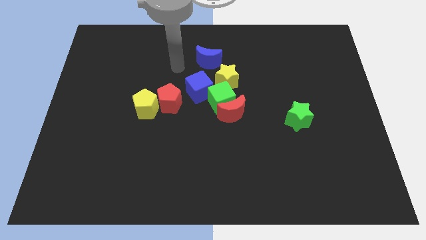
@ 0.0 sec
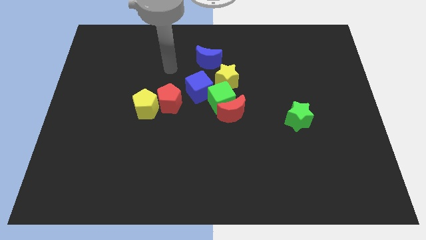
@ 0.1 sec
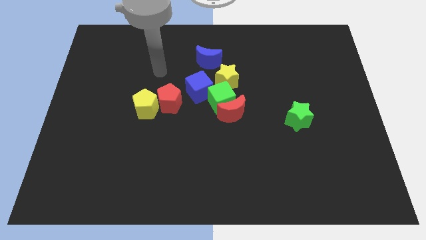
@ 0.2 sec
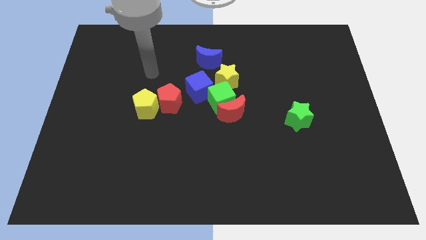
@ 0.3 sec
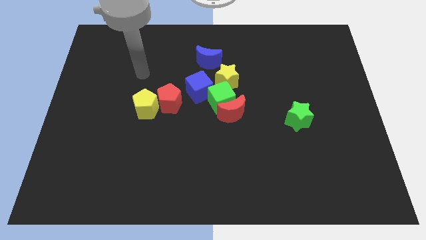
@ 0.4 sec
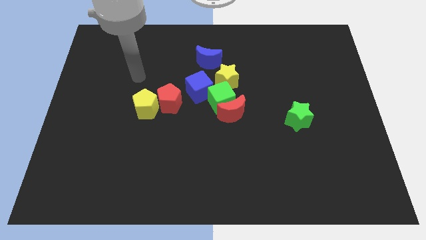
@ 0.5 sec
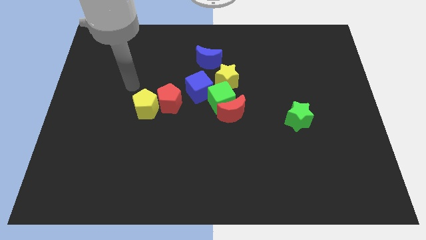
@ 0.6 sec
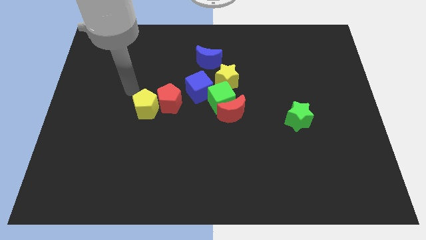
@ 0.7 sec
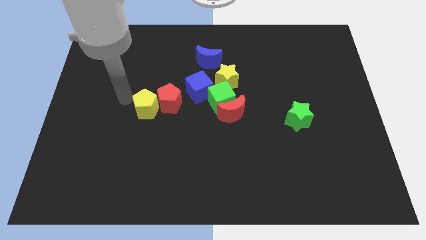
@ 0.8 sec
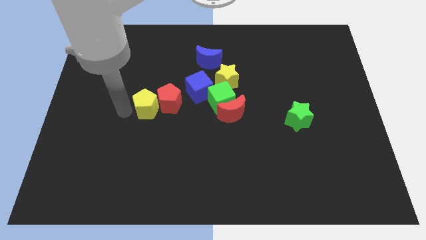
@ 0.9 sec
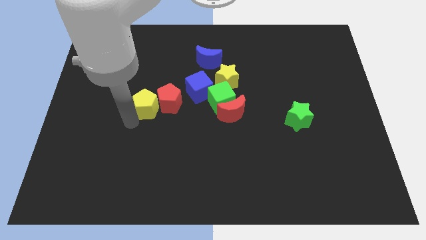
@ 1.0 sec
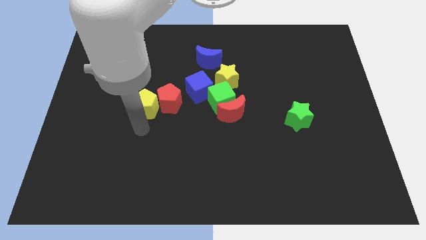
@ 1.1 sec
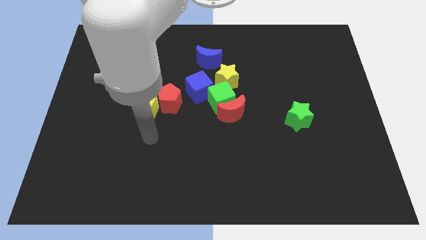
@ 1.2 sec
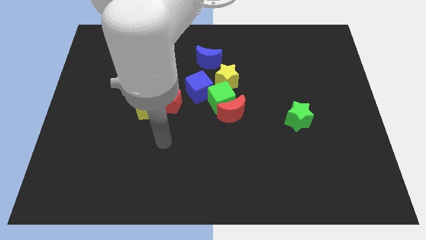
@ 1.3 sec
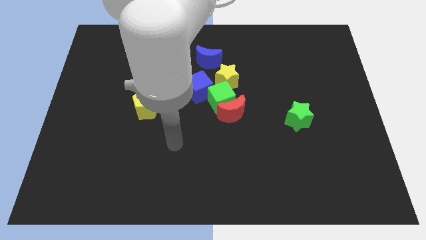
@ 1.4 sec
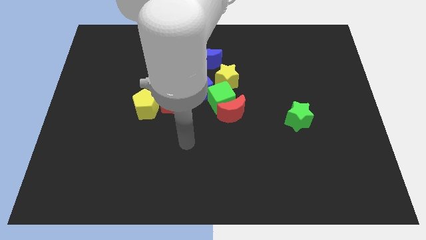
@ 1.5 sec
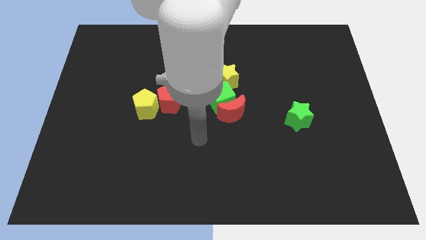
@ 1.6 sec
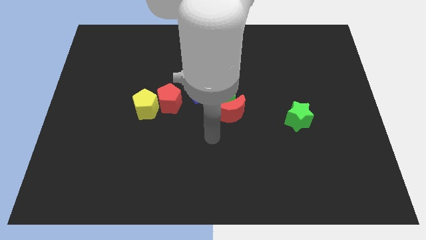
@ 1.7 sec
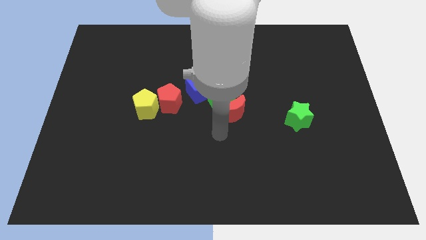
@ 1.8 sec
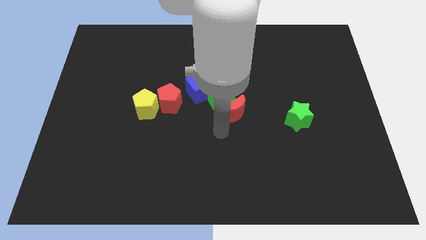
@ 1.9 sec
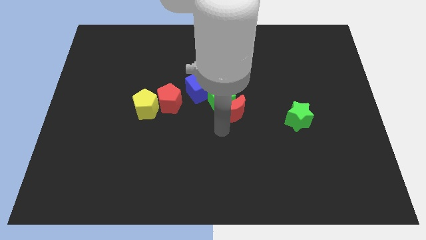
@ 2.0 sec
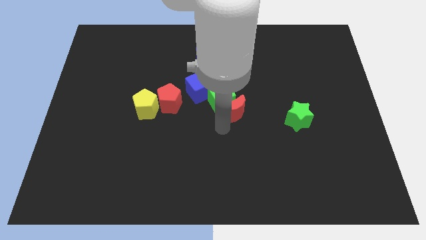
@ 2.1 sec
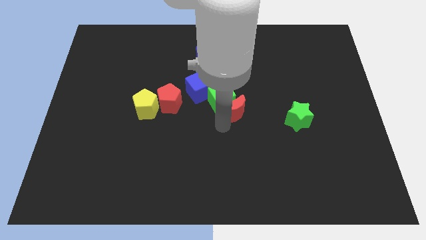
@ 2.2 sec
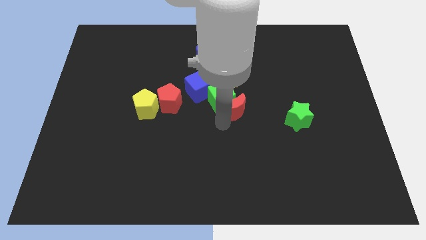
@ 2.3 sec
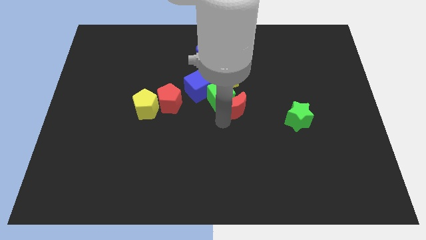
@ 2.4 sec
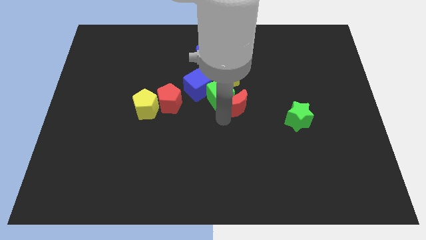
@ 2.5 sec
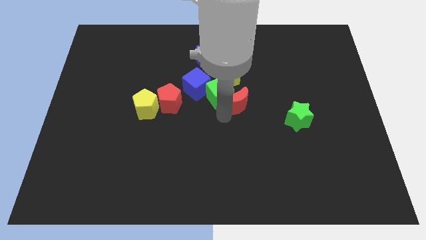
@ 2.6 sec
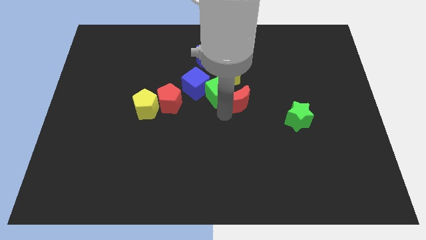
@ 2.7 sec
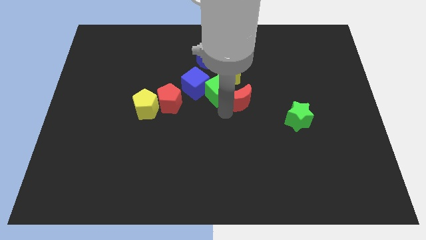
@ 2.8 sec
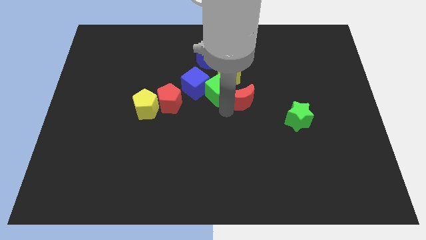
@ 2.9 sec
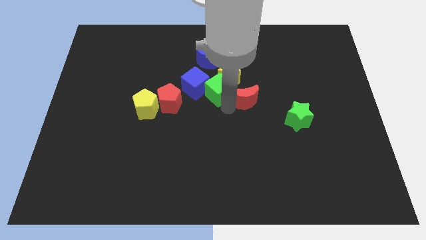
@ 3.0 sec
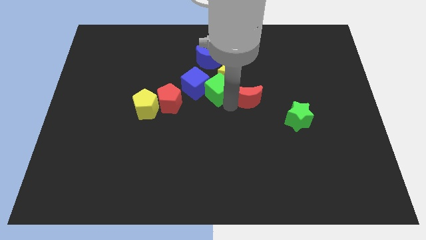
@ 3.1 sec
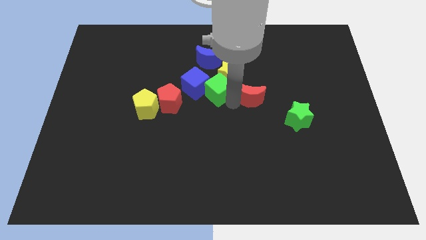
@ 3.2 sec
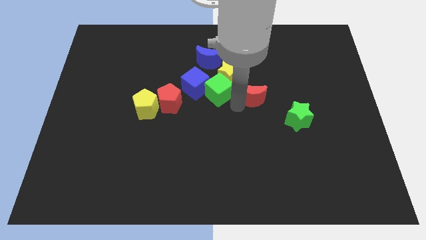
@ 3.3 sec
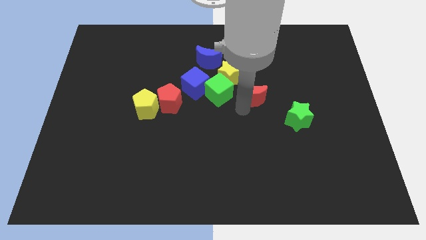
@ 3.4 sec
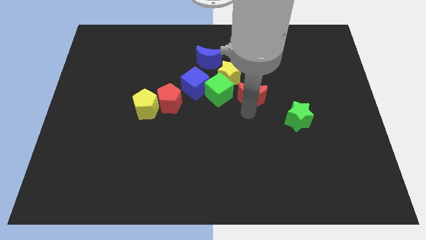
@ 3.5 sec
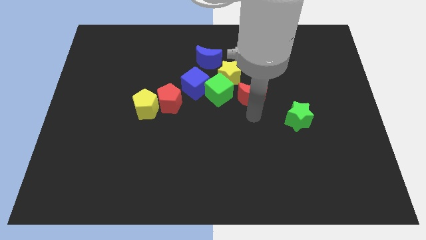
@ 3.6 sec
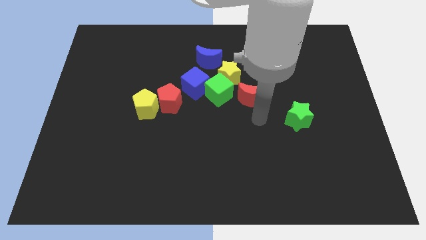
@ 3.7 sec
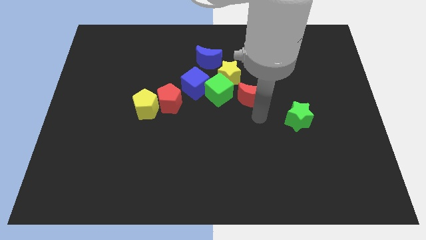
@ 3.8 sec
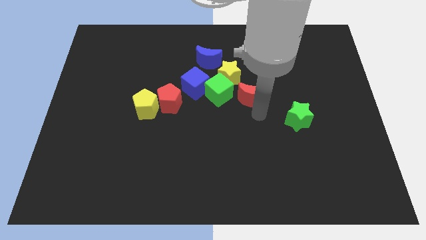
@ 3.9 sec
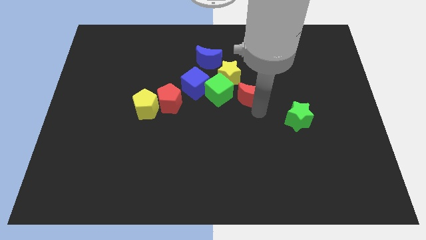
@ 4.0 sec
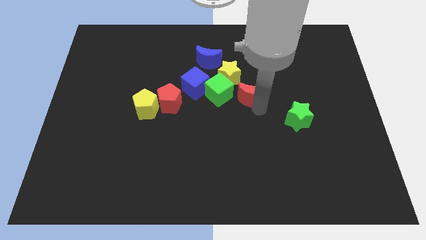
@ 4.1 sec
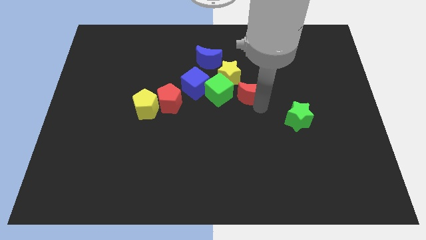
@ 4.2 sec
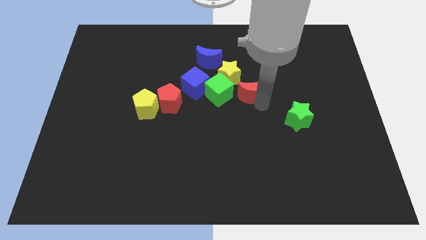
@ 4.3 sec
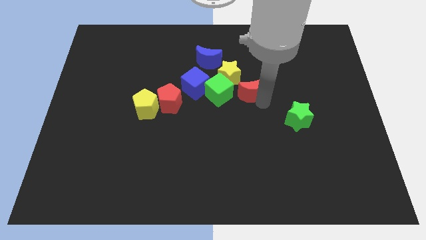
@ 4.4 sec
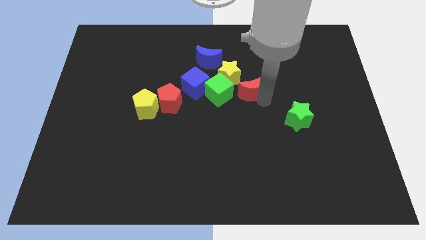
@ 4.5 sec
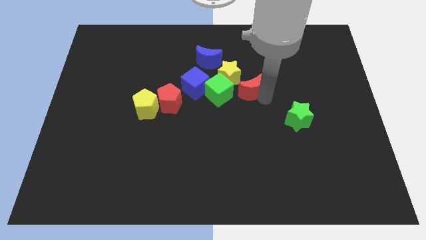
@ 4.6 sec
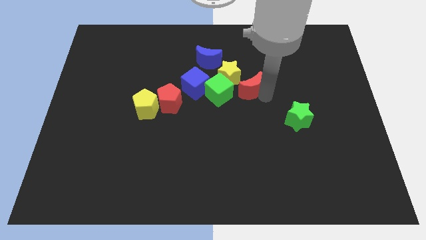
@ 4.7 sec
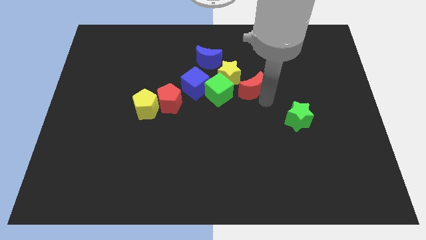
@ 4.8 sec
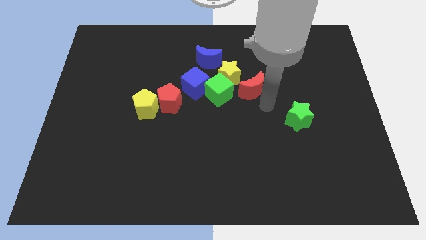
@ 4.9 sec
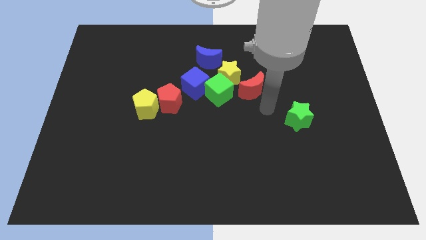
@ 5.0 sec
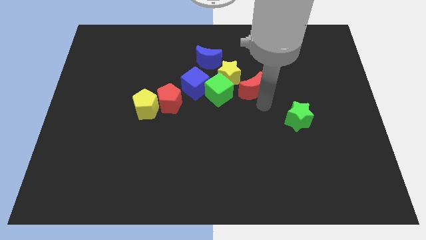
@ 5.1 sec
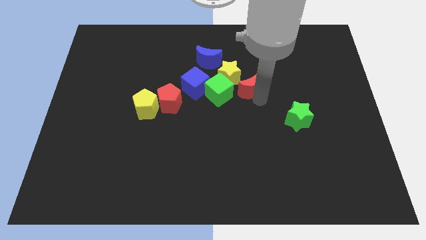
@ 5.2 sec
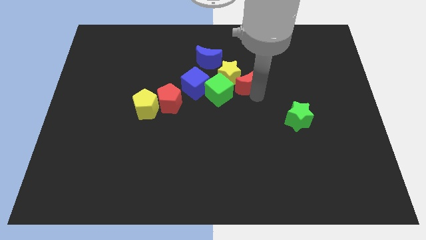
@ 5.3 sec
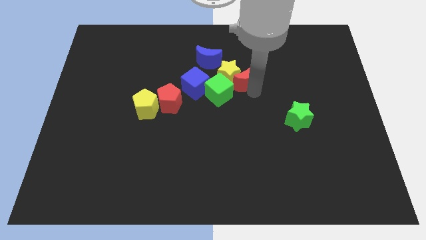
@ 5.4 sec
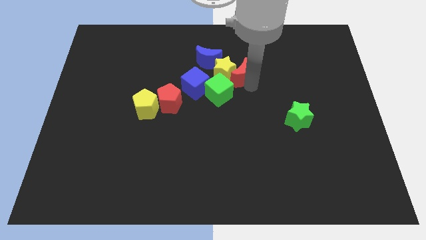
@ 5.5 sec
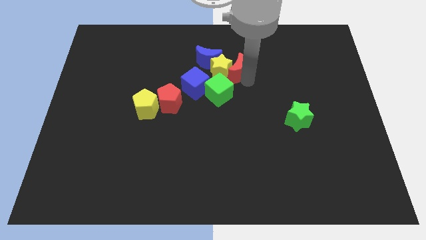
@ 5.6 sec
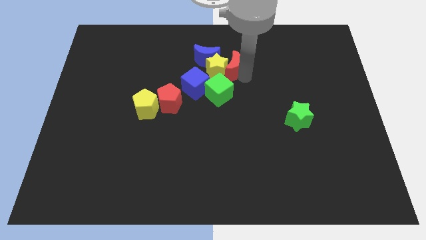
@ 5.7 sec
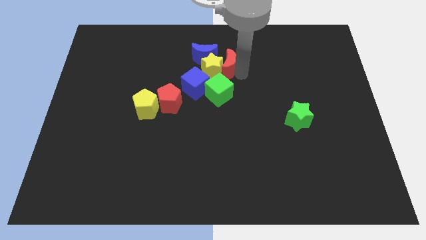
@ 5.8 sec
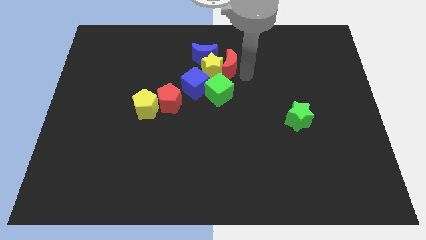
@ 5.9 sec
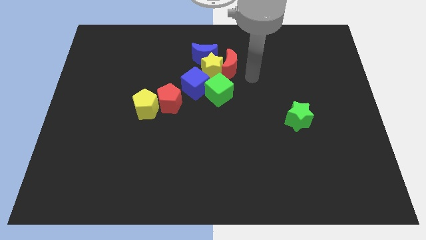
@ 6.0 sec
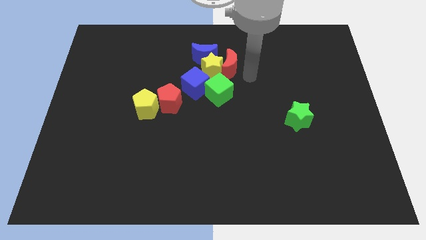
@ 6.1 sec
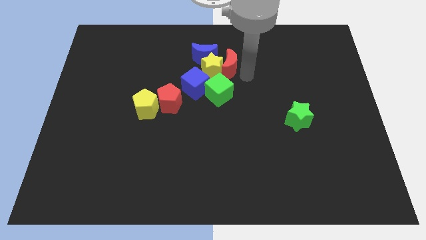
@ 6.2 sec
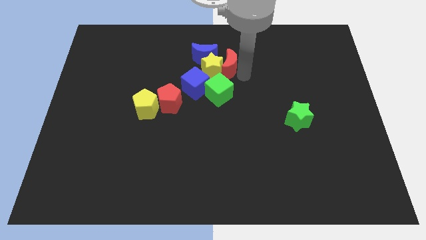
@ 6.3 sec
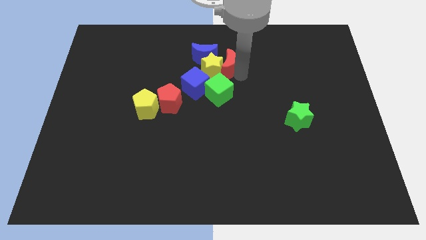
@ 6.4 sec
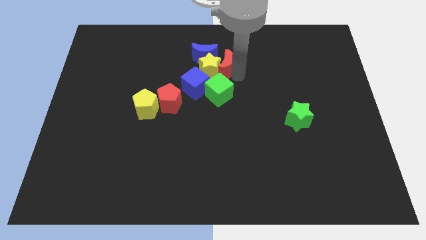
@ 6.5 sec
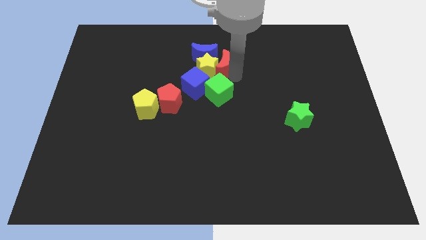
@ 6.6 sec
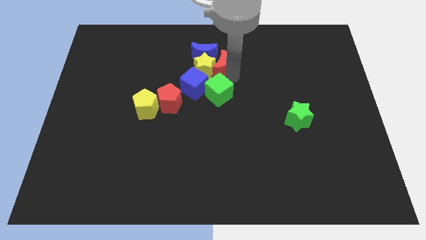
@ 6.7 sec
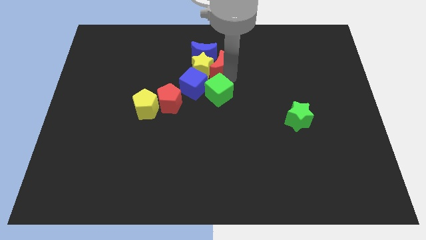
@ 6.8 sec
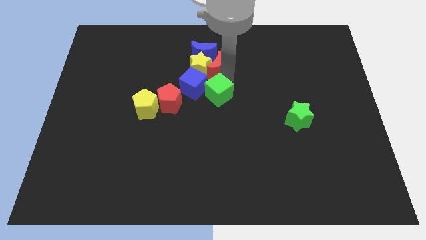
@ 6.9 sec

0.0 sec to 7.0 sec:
move the red moon next to the blue moon
